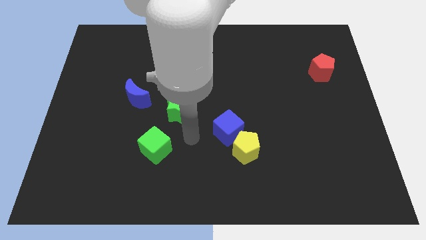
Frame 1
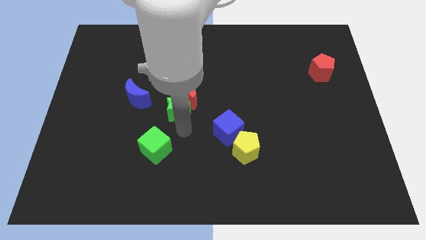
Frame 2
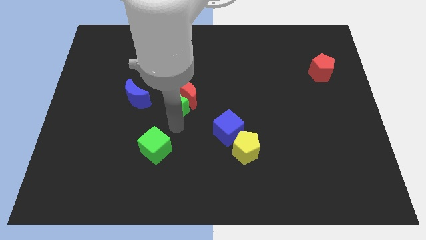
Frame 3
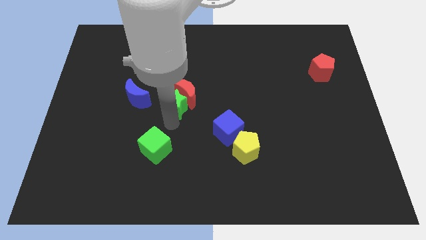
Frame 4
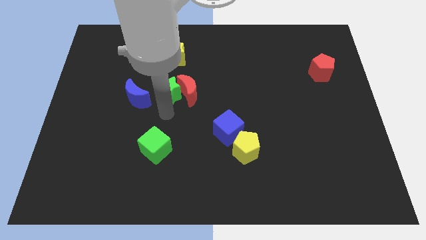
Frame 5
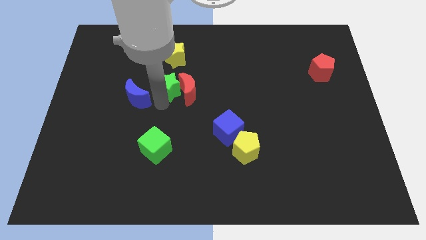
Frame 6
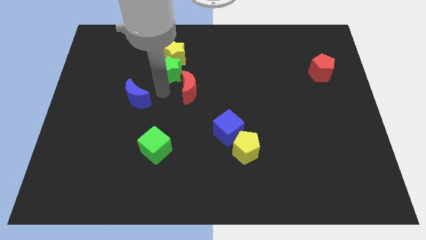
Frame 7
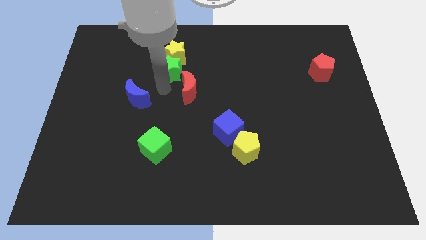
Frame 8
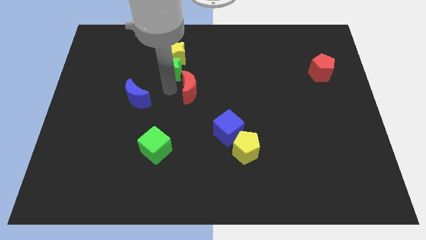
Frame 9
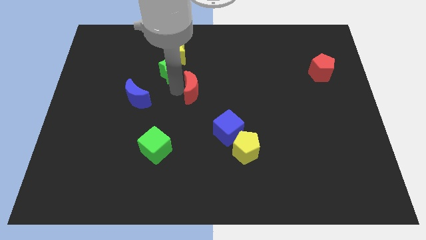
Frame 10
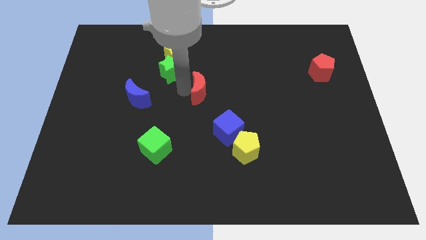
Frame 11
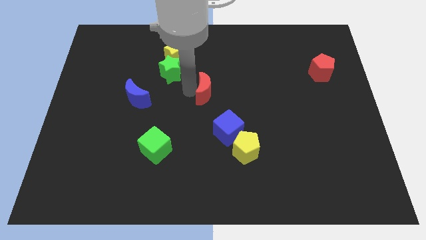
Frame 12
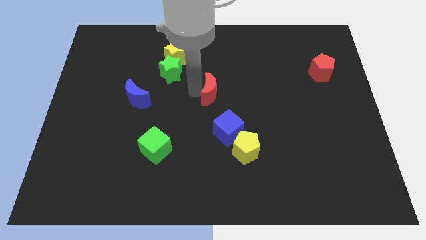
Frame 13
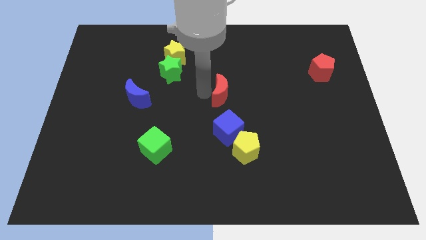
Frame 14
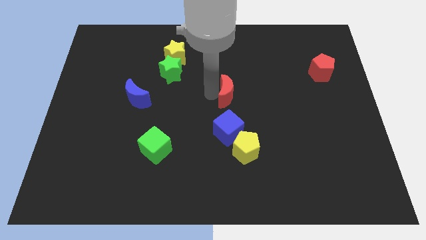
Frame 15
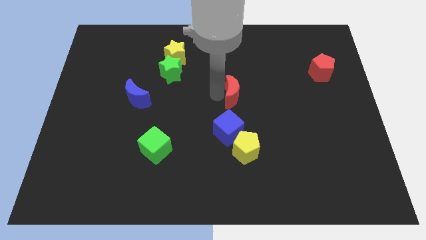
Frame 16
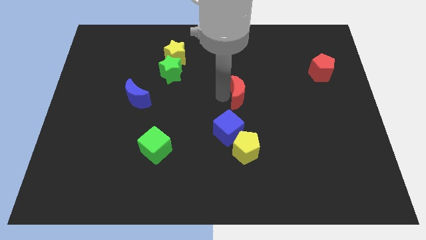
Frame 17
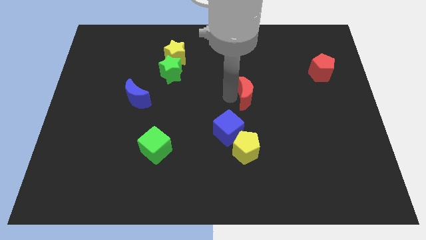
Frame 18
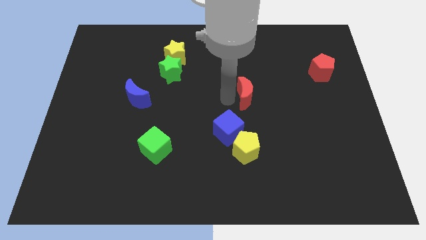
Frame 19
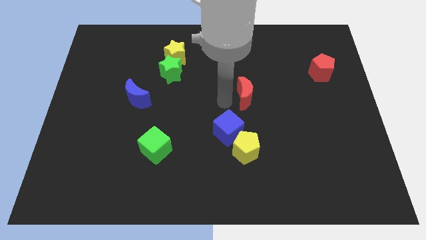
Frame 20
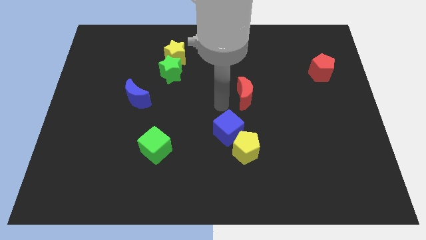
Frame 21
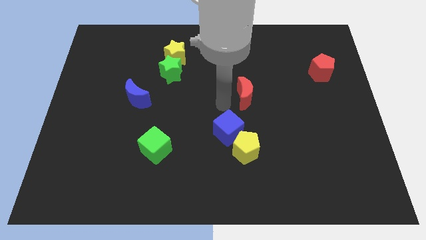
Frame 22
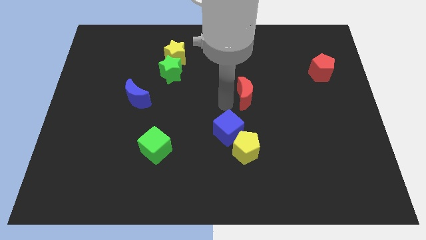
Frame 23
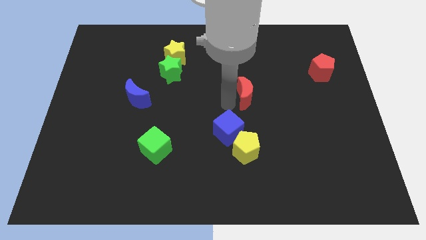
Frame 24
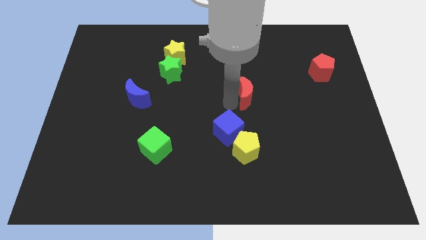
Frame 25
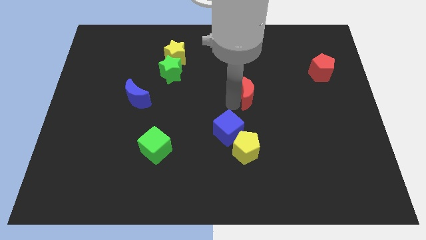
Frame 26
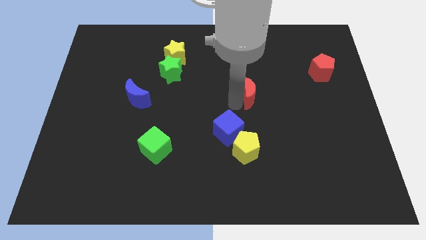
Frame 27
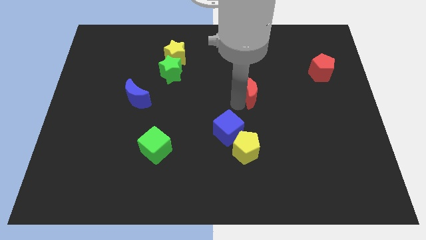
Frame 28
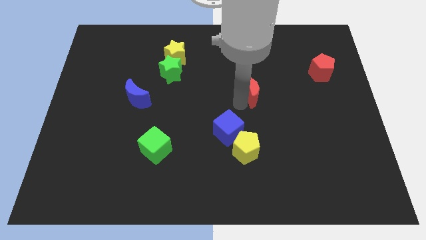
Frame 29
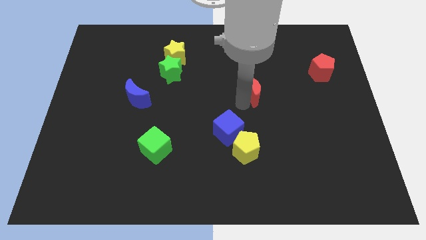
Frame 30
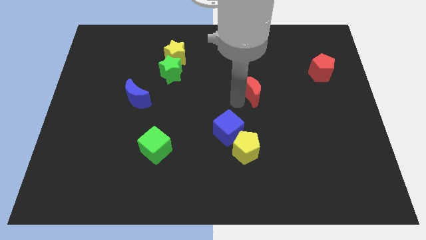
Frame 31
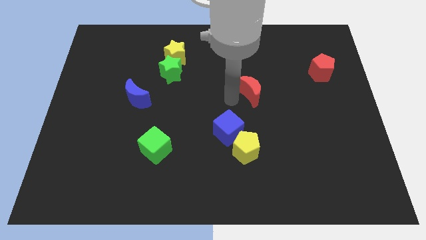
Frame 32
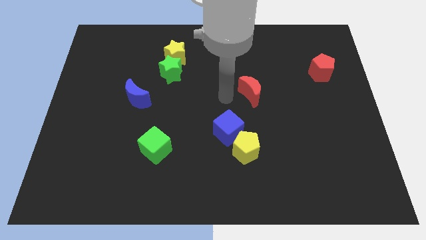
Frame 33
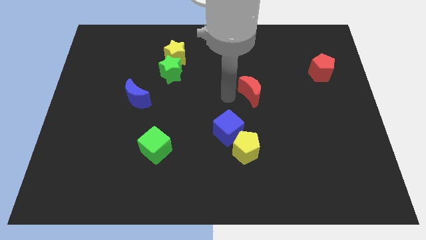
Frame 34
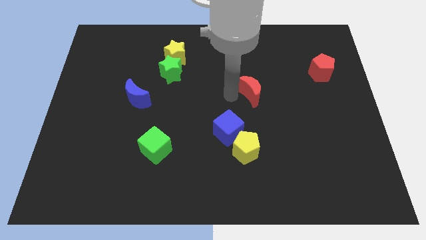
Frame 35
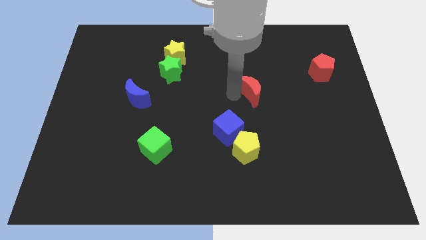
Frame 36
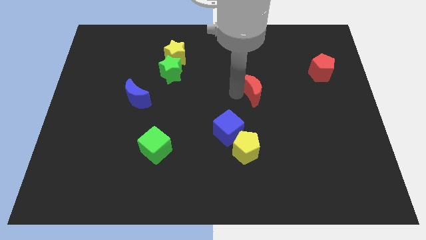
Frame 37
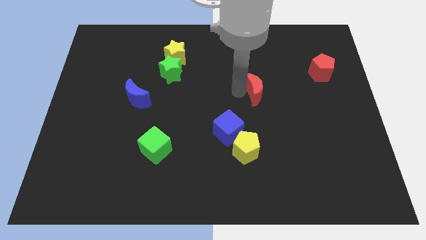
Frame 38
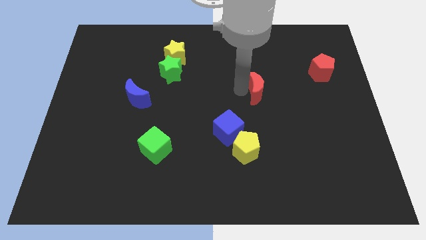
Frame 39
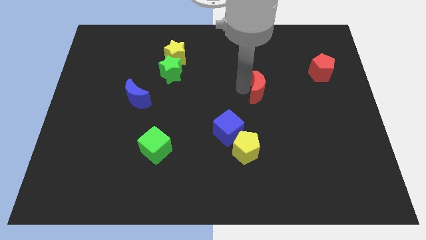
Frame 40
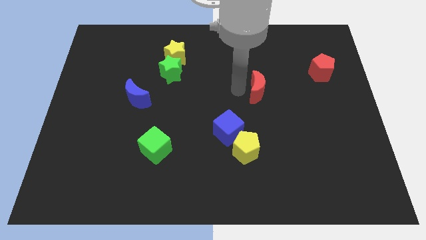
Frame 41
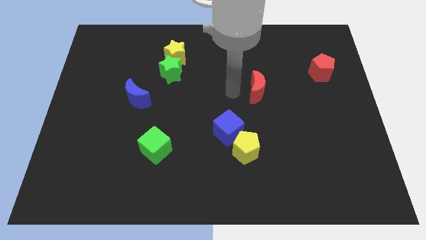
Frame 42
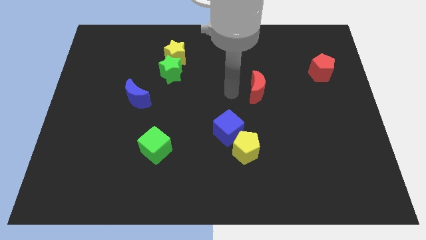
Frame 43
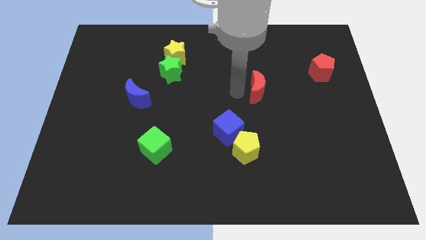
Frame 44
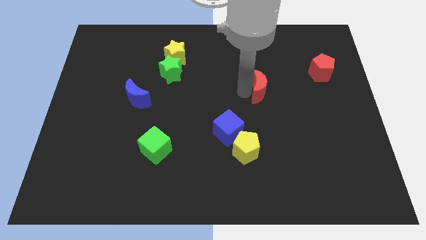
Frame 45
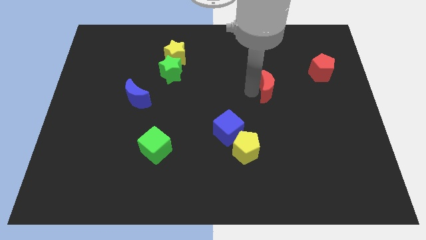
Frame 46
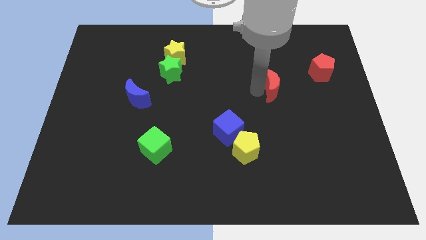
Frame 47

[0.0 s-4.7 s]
slide the red moon right

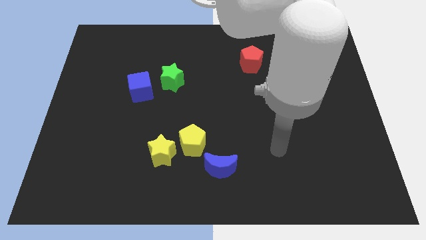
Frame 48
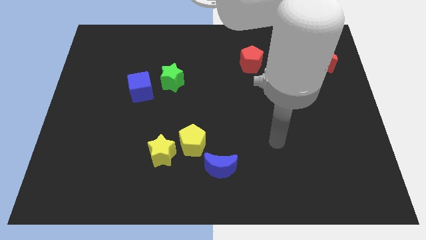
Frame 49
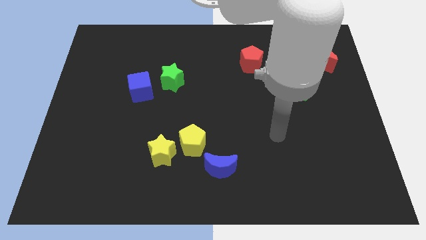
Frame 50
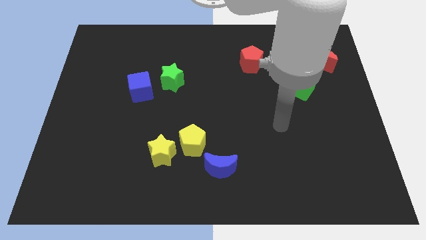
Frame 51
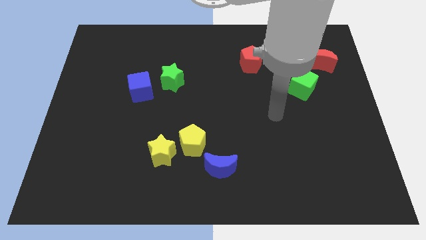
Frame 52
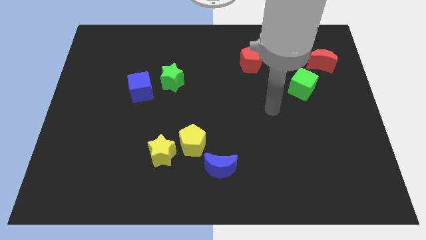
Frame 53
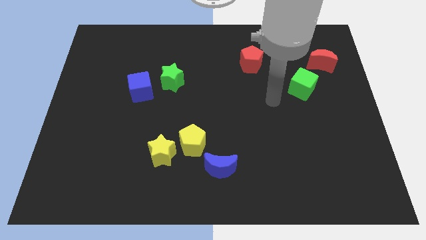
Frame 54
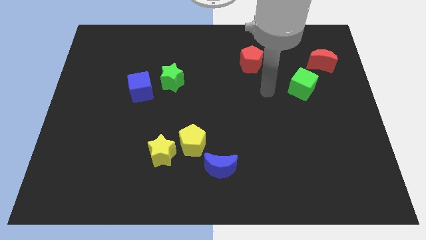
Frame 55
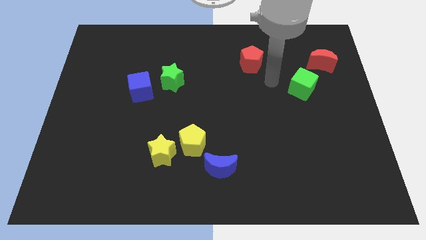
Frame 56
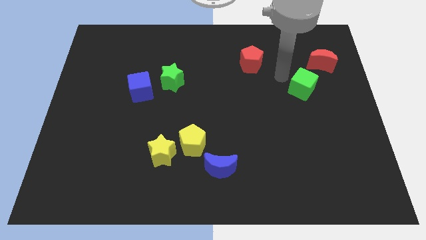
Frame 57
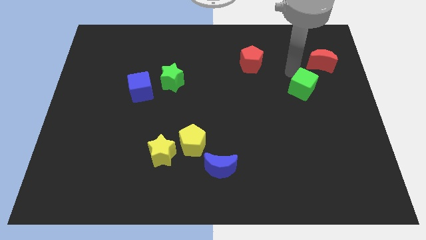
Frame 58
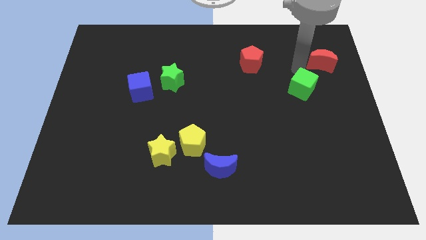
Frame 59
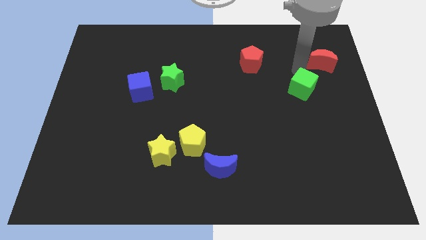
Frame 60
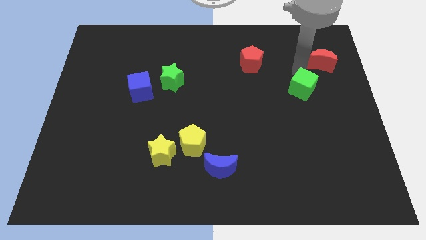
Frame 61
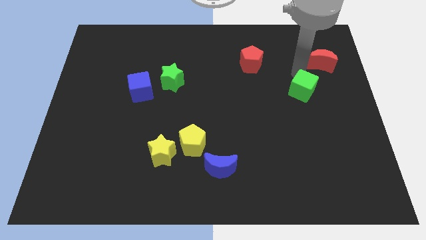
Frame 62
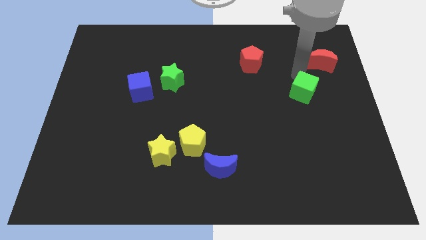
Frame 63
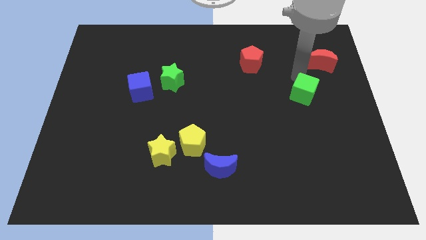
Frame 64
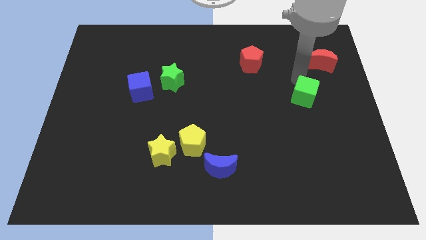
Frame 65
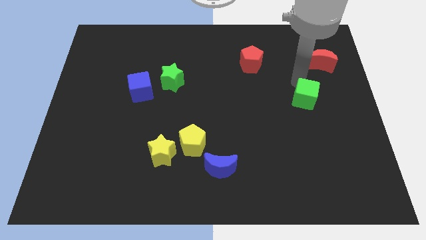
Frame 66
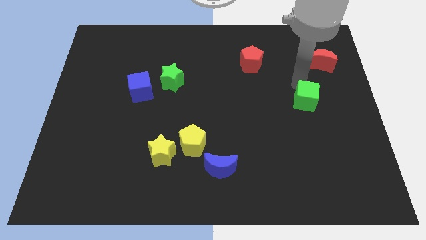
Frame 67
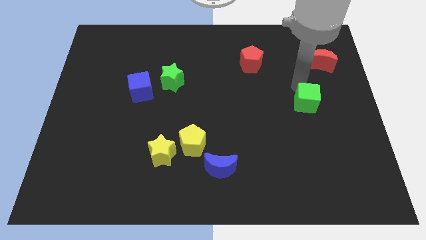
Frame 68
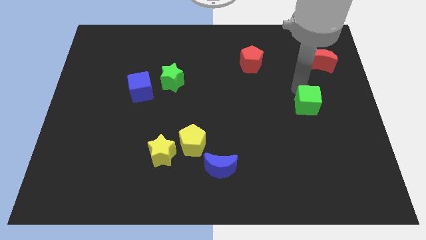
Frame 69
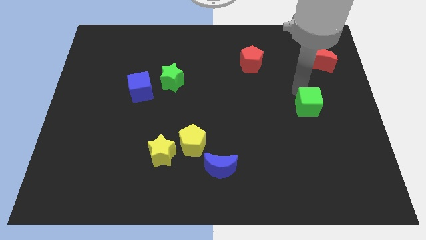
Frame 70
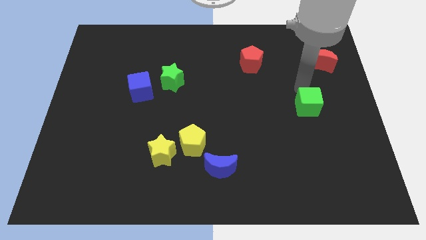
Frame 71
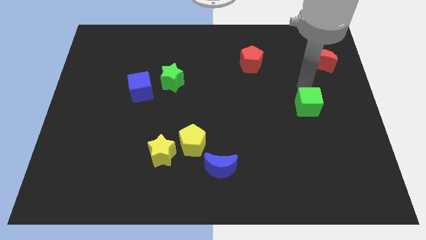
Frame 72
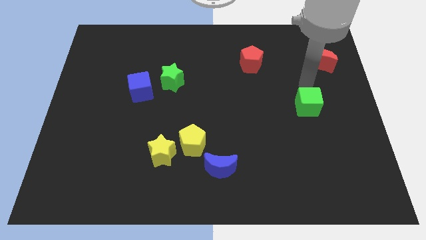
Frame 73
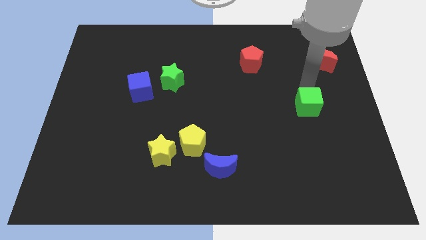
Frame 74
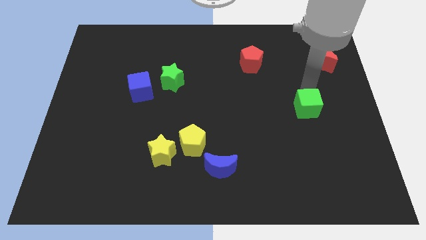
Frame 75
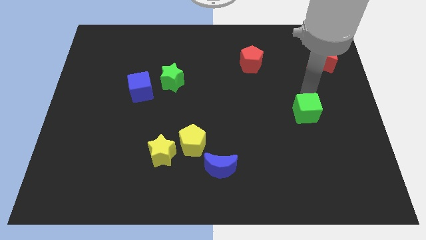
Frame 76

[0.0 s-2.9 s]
push the green cube down somewhat

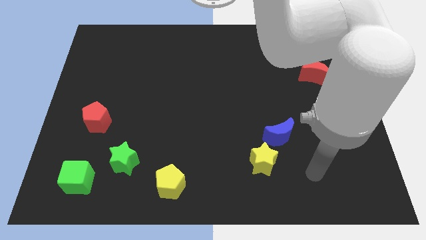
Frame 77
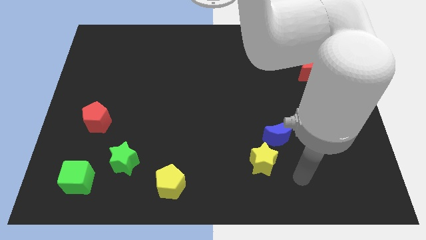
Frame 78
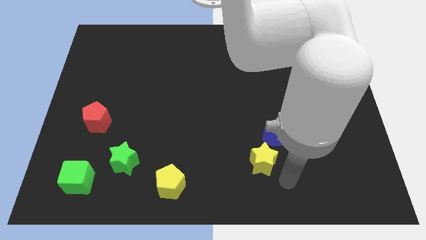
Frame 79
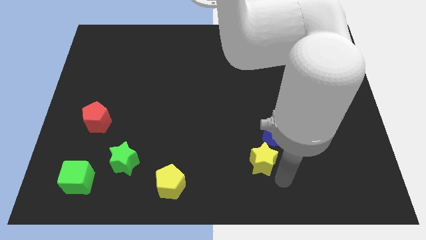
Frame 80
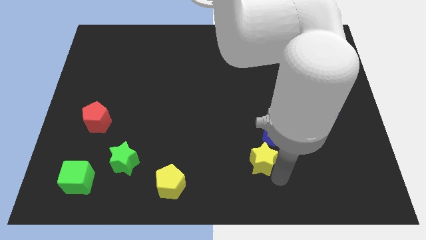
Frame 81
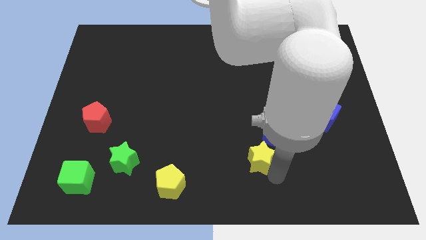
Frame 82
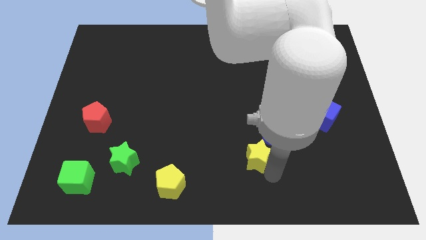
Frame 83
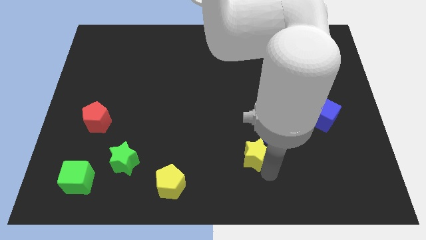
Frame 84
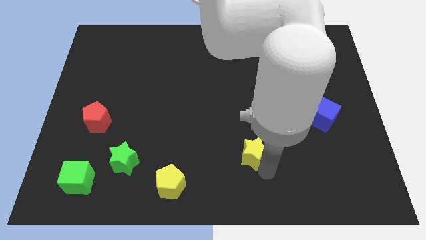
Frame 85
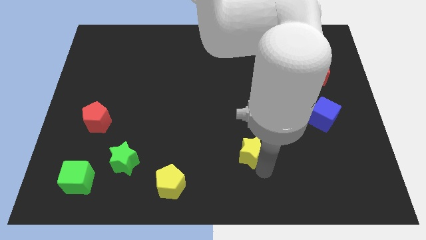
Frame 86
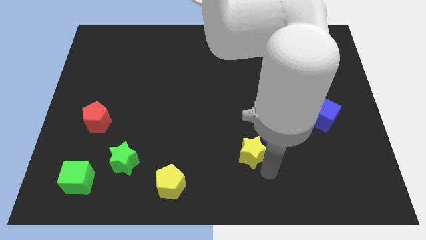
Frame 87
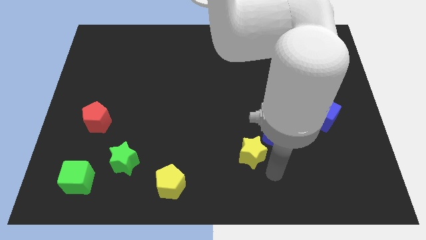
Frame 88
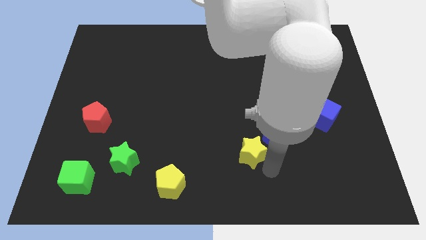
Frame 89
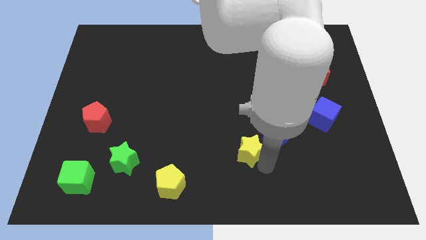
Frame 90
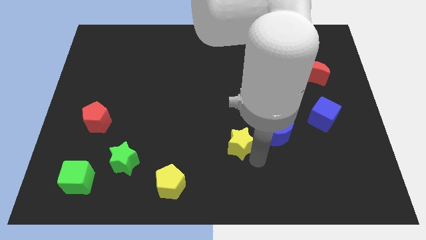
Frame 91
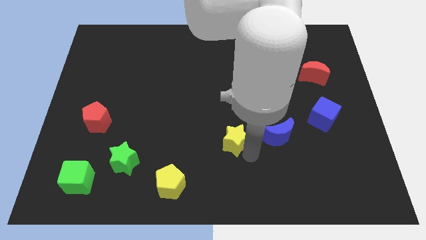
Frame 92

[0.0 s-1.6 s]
push the yellow star up and left a little bit
